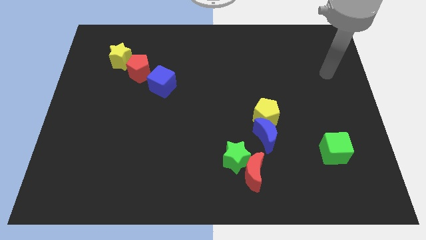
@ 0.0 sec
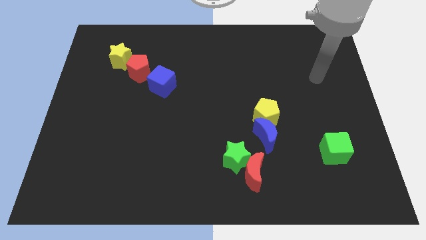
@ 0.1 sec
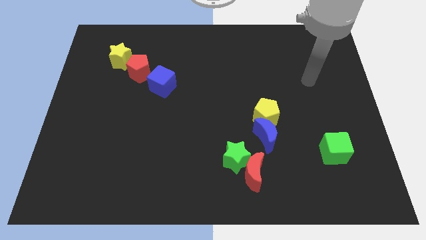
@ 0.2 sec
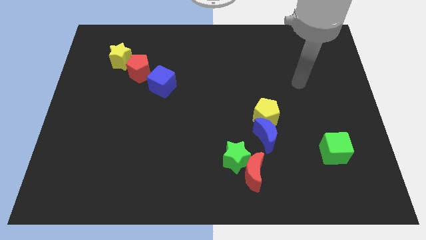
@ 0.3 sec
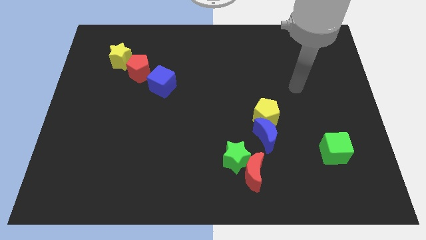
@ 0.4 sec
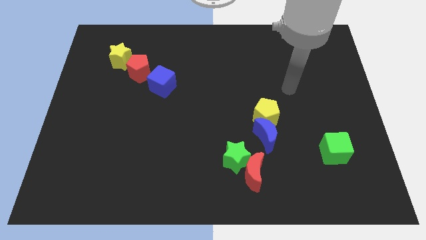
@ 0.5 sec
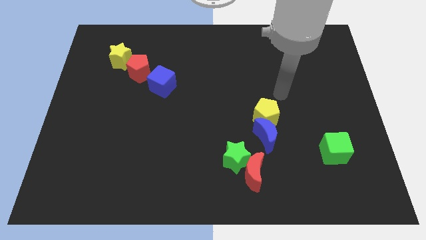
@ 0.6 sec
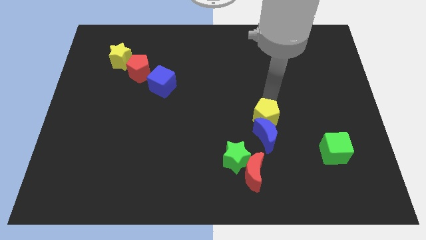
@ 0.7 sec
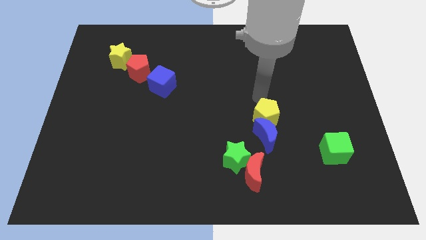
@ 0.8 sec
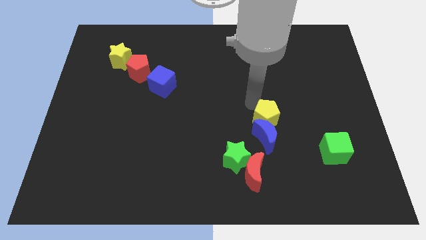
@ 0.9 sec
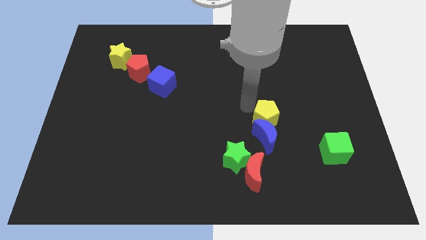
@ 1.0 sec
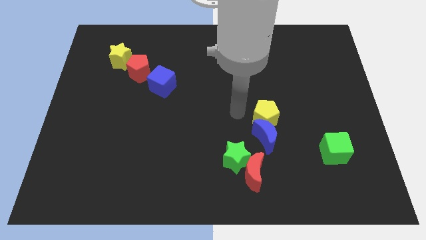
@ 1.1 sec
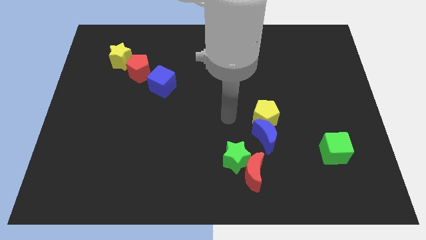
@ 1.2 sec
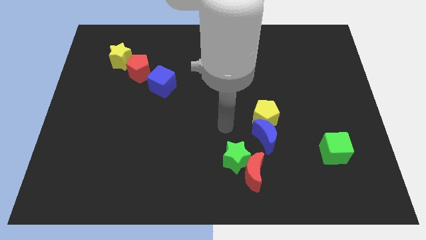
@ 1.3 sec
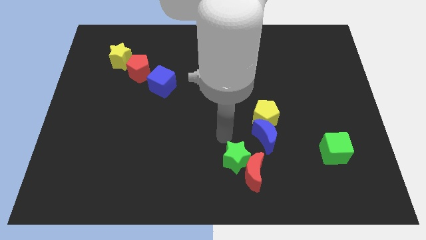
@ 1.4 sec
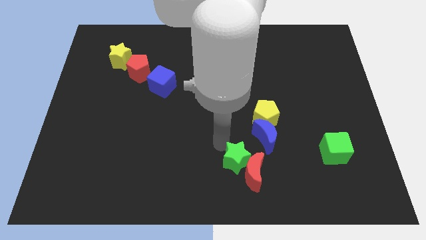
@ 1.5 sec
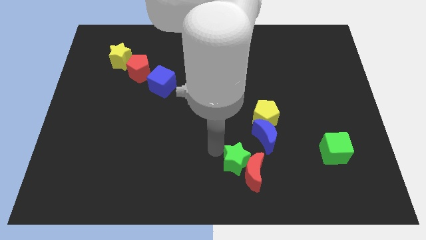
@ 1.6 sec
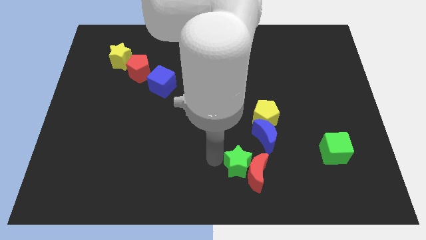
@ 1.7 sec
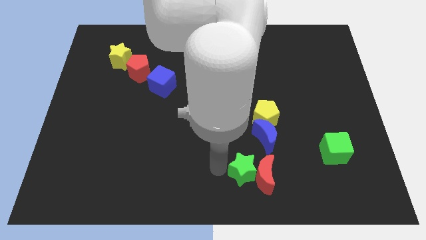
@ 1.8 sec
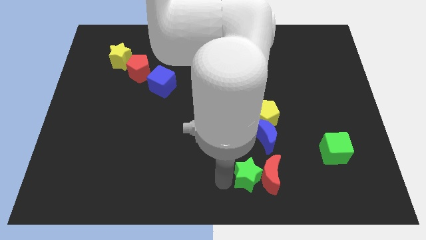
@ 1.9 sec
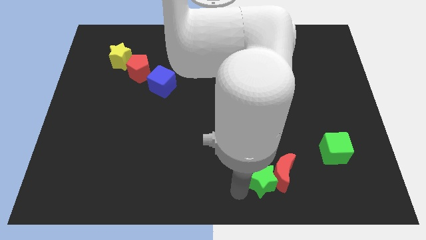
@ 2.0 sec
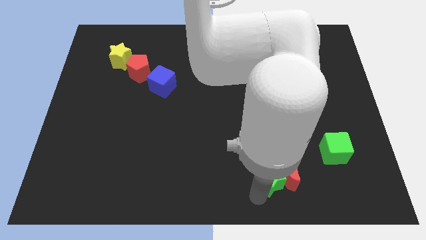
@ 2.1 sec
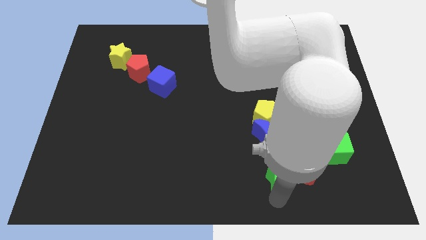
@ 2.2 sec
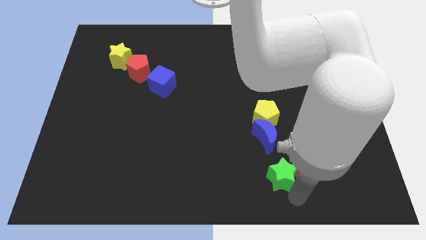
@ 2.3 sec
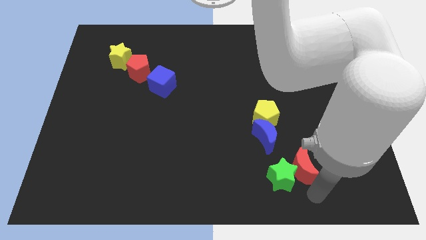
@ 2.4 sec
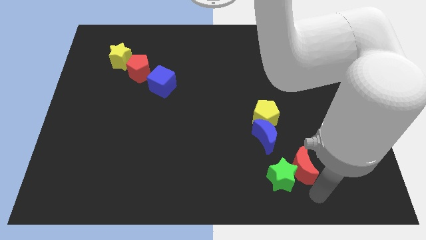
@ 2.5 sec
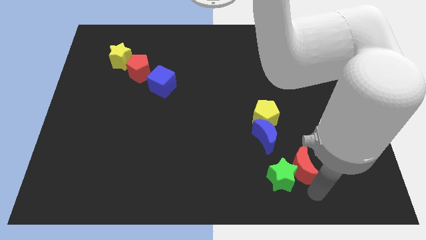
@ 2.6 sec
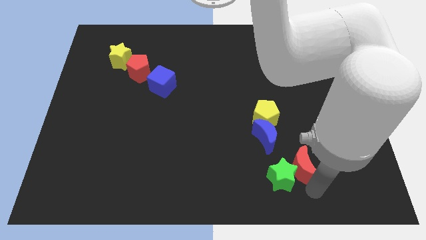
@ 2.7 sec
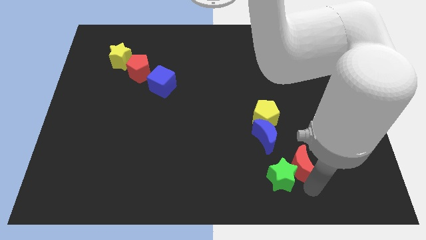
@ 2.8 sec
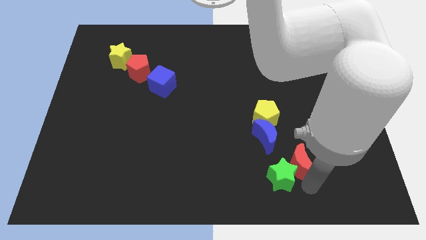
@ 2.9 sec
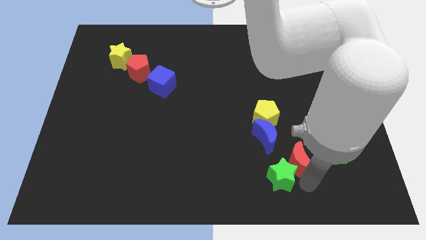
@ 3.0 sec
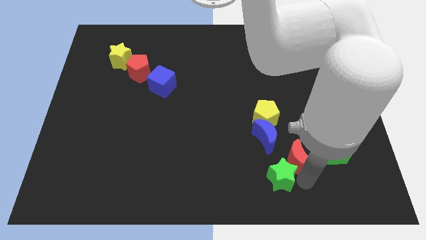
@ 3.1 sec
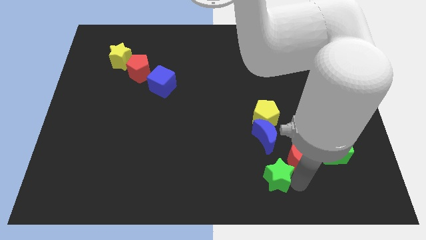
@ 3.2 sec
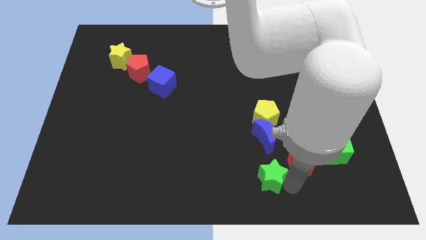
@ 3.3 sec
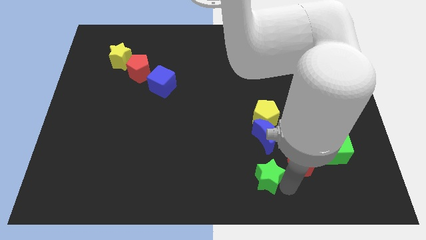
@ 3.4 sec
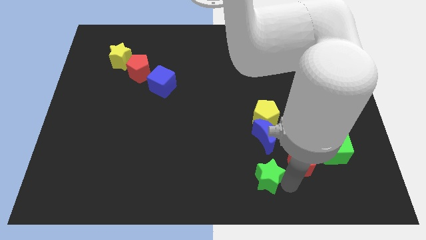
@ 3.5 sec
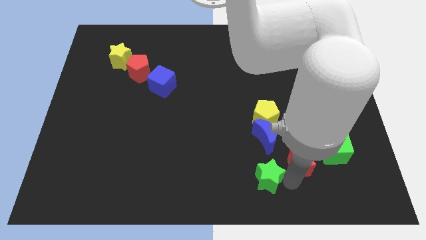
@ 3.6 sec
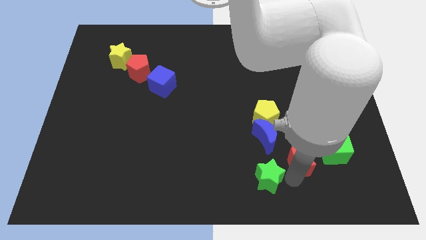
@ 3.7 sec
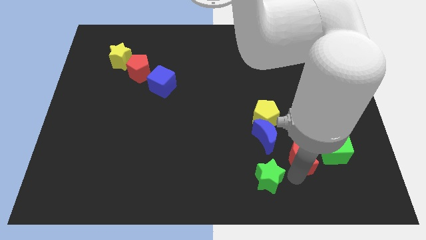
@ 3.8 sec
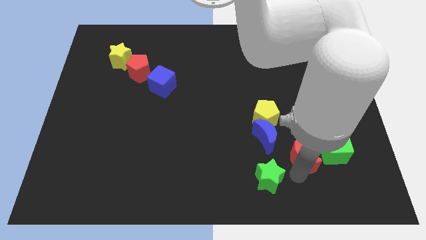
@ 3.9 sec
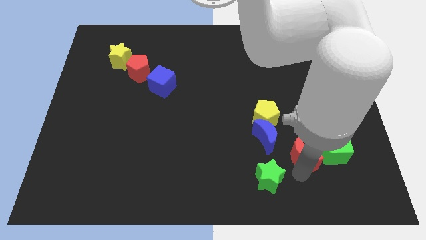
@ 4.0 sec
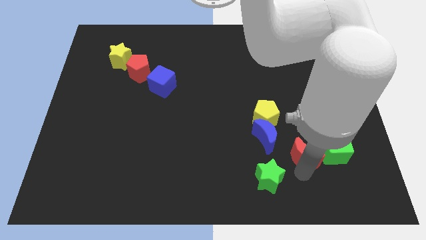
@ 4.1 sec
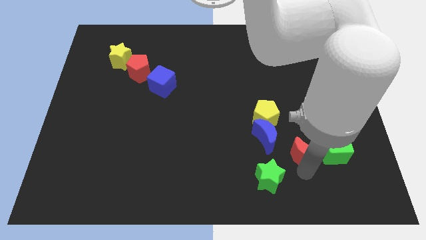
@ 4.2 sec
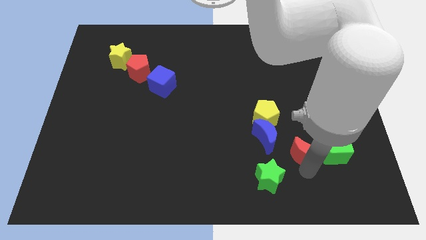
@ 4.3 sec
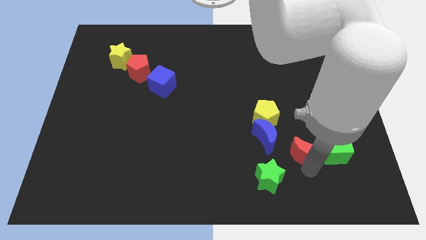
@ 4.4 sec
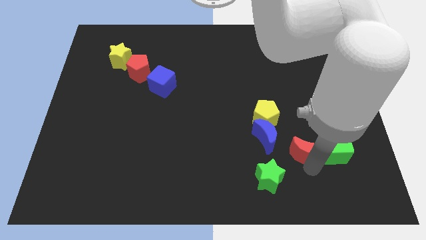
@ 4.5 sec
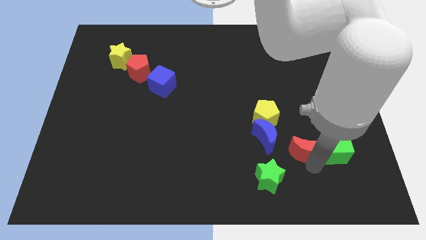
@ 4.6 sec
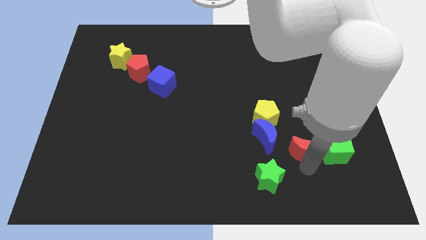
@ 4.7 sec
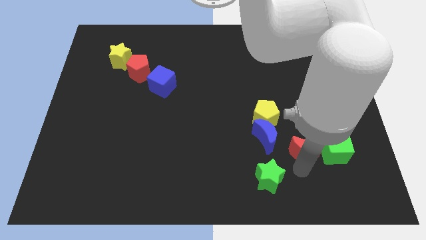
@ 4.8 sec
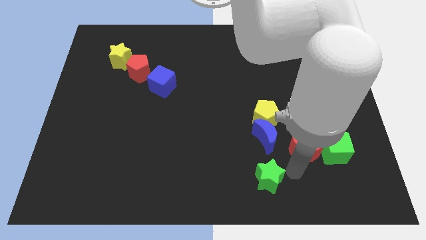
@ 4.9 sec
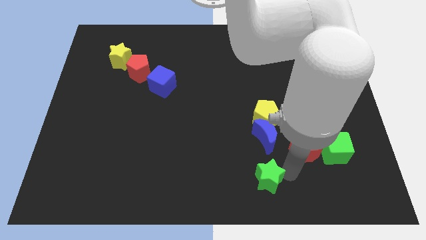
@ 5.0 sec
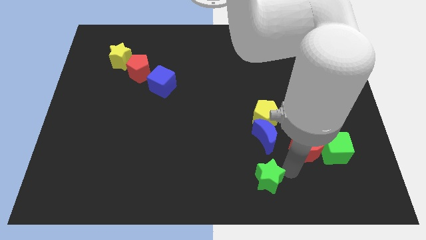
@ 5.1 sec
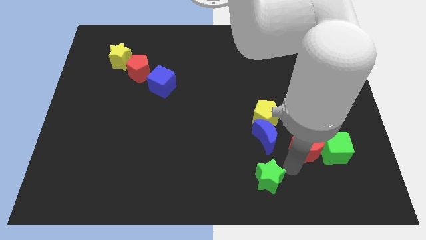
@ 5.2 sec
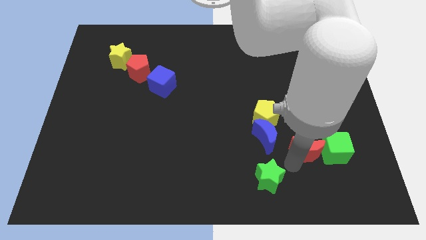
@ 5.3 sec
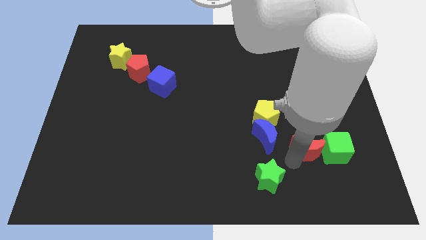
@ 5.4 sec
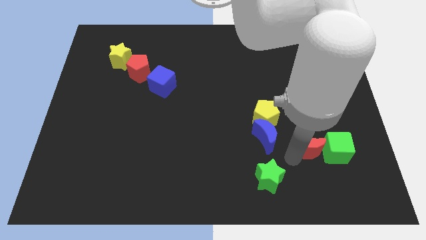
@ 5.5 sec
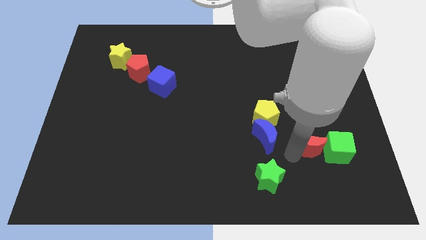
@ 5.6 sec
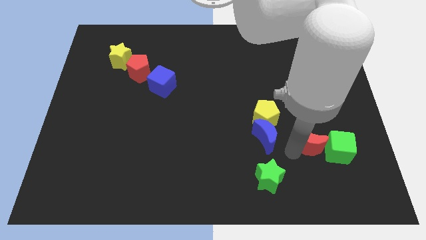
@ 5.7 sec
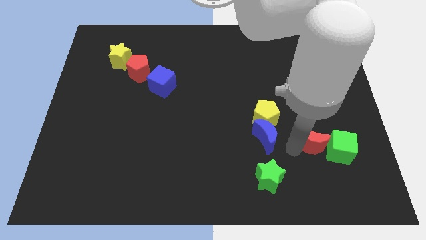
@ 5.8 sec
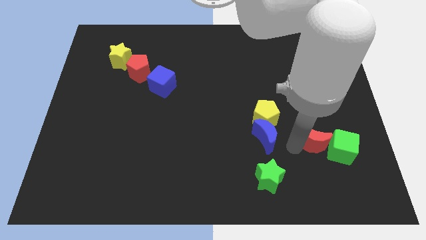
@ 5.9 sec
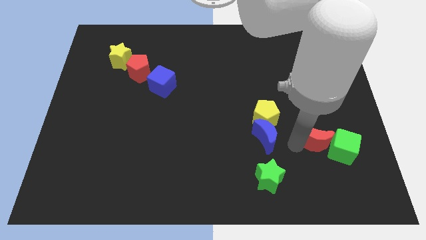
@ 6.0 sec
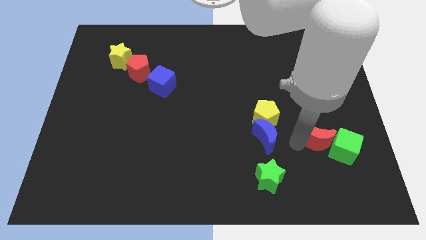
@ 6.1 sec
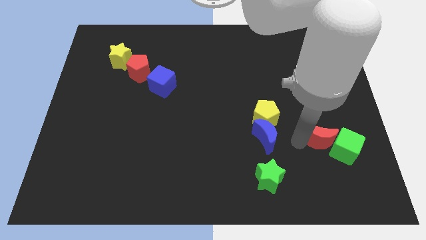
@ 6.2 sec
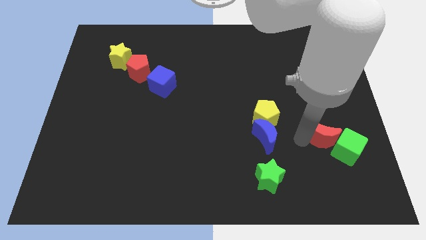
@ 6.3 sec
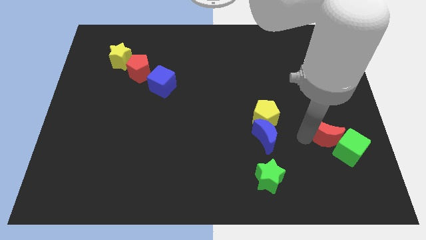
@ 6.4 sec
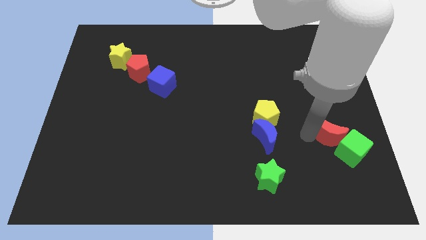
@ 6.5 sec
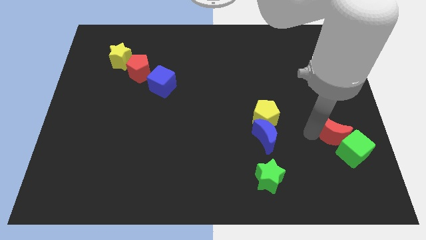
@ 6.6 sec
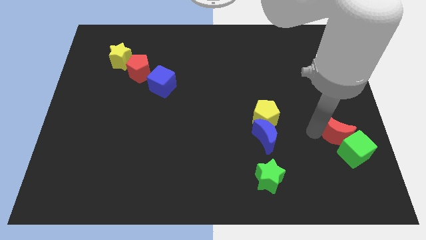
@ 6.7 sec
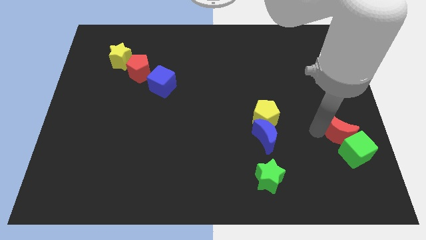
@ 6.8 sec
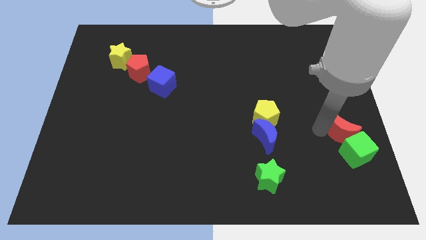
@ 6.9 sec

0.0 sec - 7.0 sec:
push the red moon to the right side
